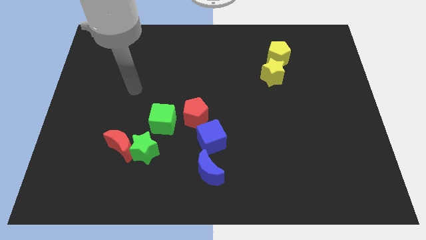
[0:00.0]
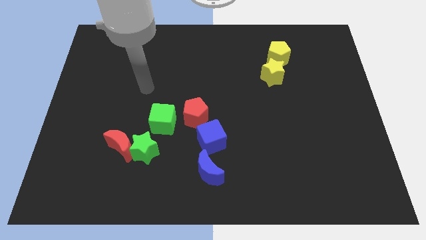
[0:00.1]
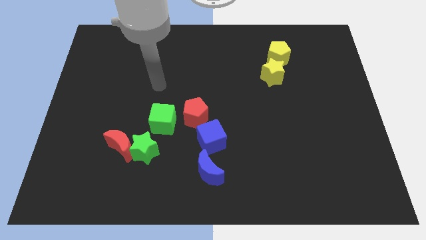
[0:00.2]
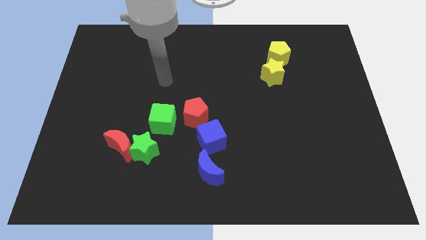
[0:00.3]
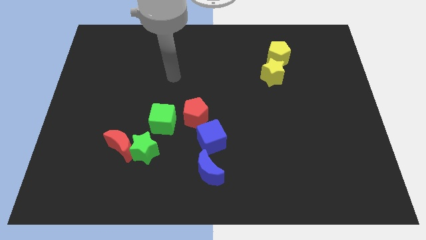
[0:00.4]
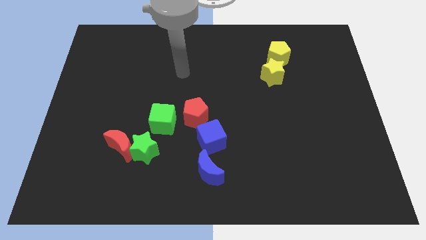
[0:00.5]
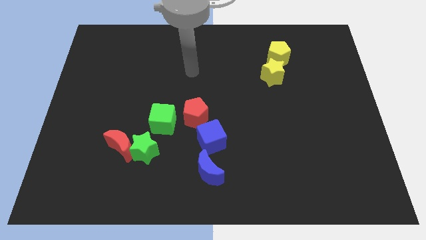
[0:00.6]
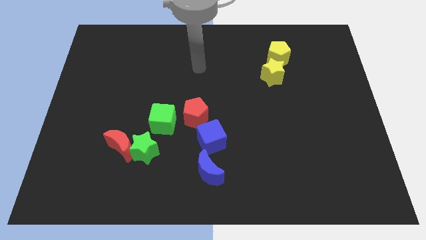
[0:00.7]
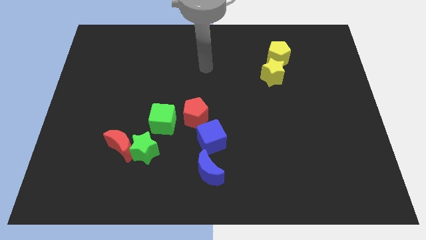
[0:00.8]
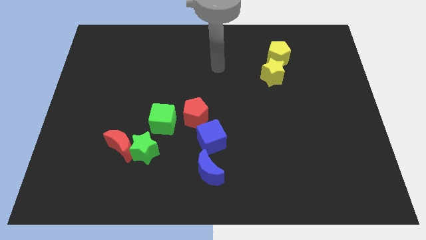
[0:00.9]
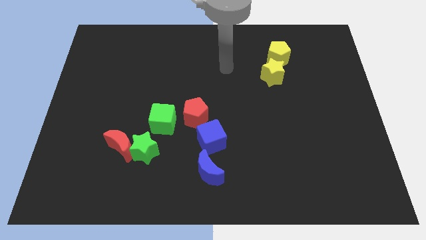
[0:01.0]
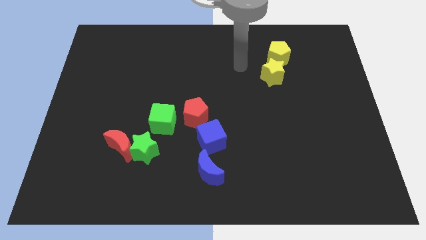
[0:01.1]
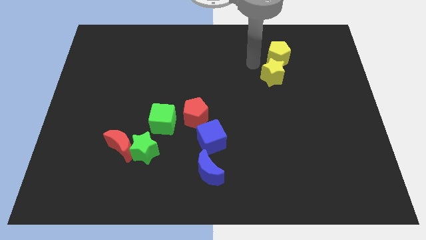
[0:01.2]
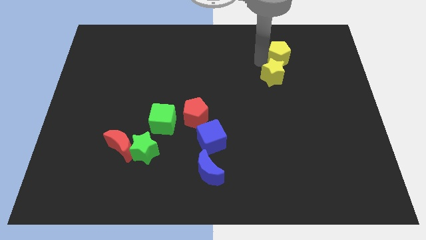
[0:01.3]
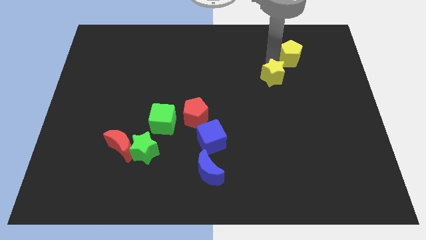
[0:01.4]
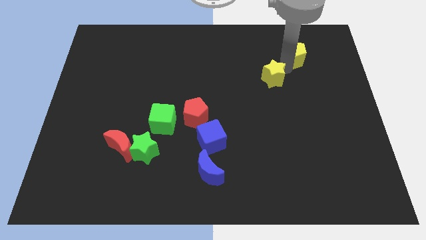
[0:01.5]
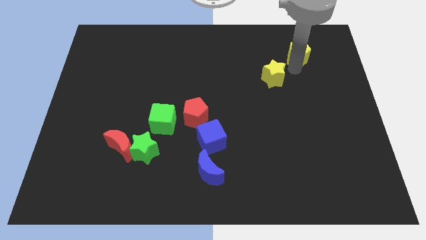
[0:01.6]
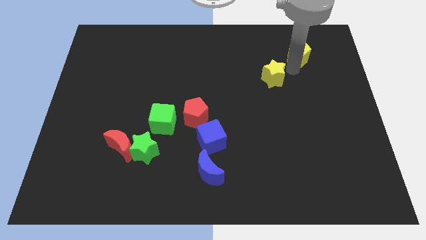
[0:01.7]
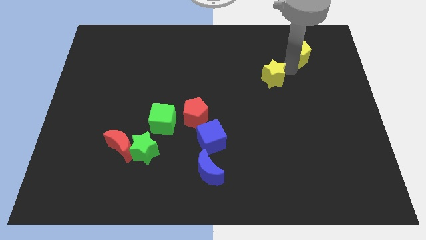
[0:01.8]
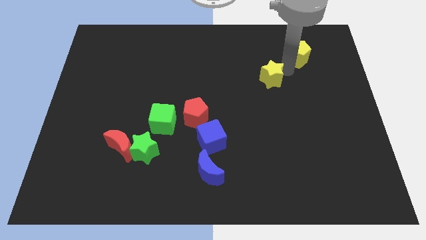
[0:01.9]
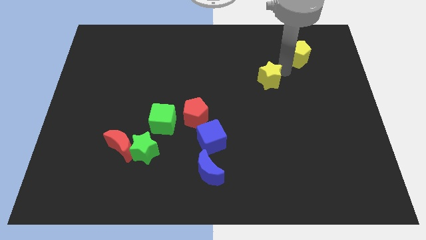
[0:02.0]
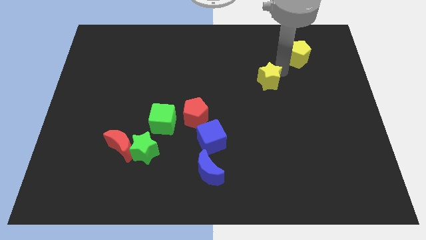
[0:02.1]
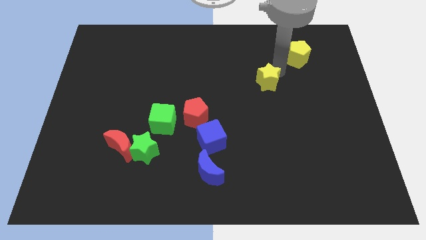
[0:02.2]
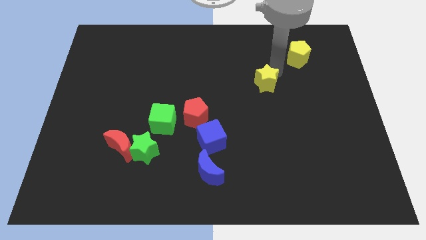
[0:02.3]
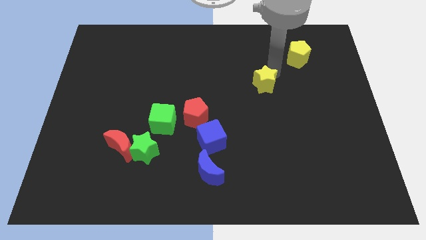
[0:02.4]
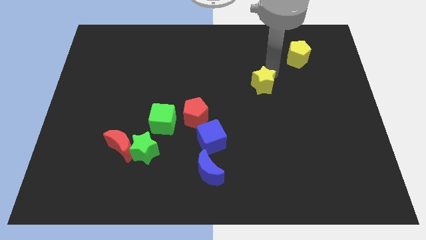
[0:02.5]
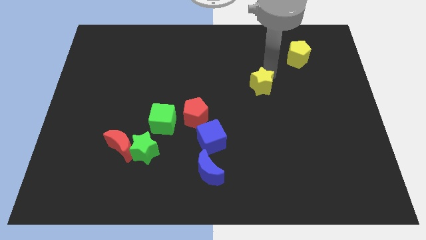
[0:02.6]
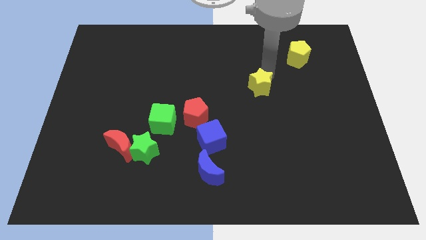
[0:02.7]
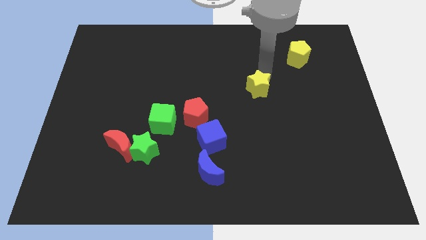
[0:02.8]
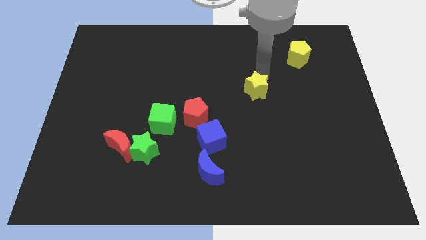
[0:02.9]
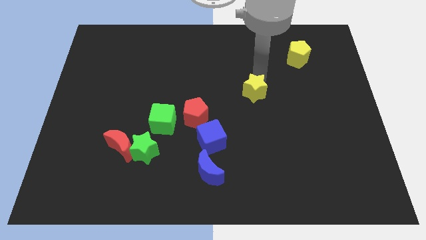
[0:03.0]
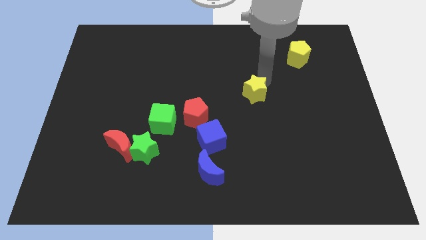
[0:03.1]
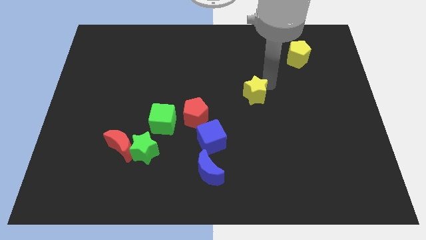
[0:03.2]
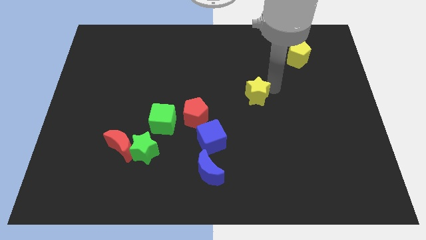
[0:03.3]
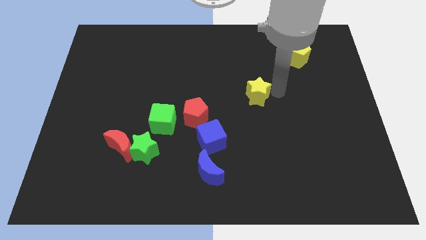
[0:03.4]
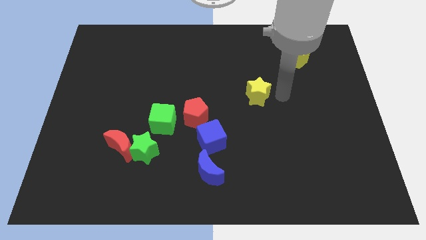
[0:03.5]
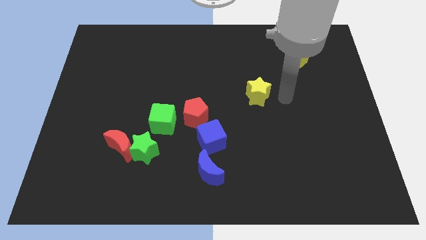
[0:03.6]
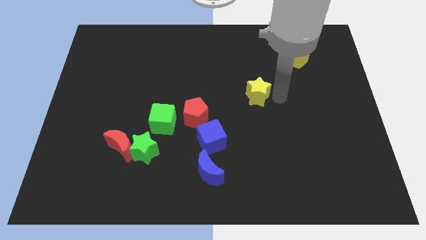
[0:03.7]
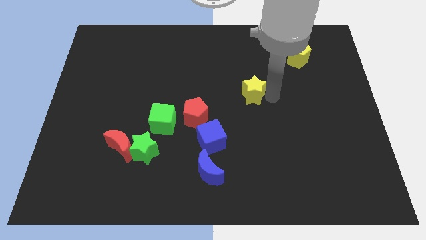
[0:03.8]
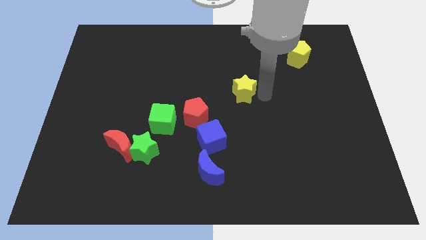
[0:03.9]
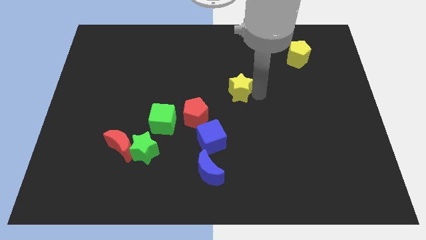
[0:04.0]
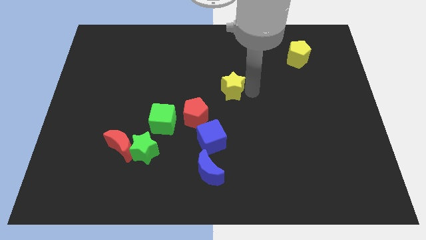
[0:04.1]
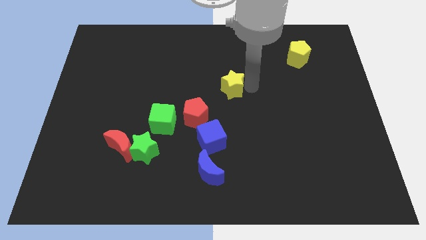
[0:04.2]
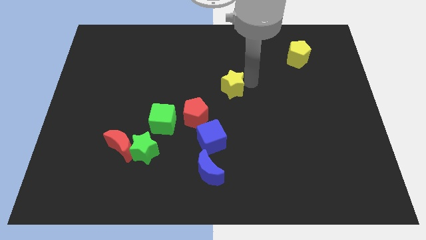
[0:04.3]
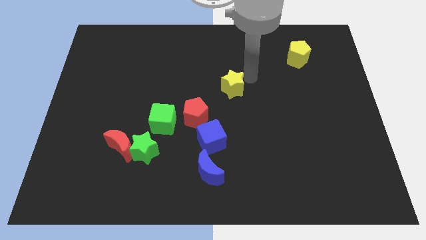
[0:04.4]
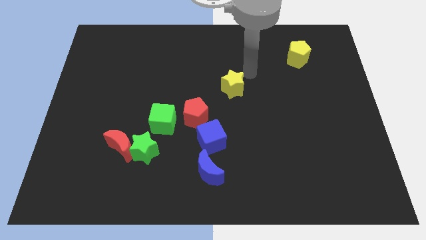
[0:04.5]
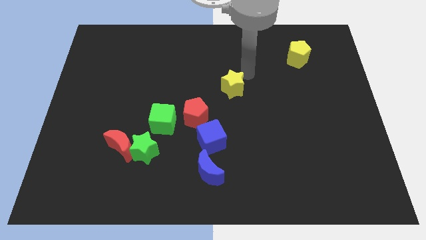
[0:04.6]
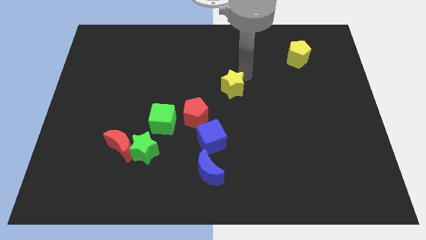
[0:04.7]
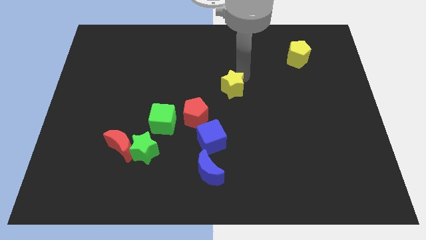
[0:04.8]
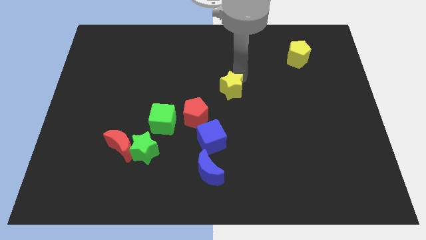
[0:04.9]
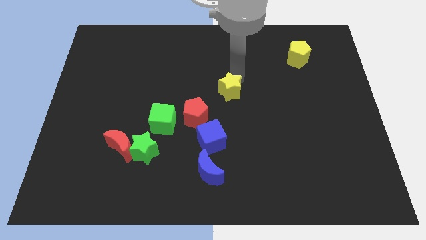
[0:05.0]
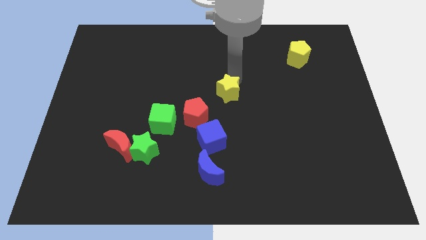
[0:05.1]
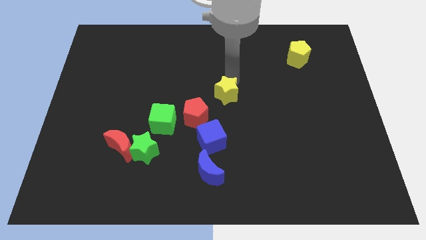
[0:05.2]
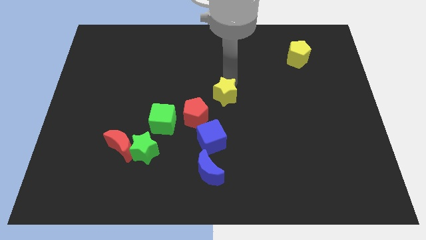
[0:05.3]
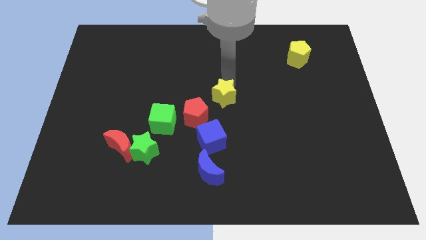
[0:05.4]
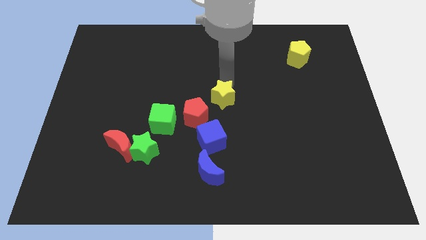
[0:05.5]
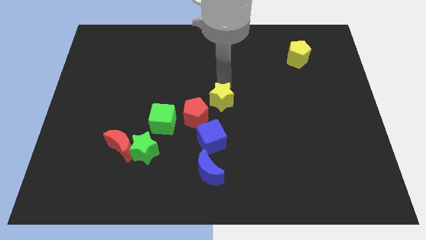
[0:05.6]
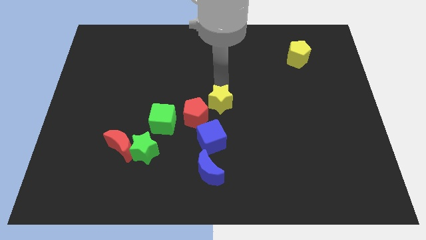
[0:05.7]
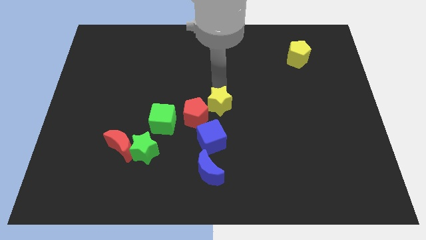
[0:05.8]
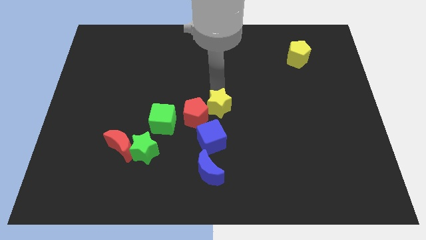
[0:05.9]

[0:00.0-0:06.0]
push the yellow star towards the red pentagon

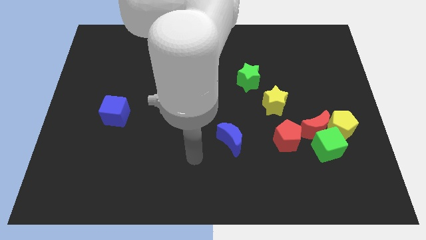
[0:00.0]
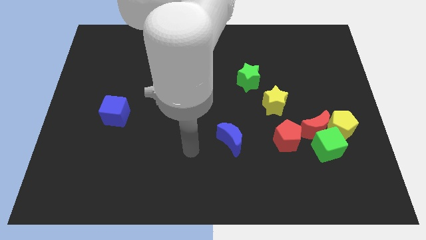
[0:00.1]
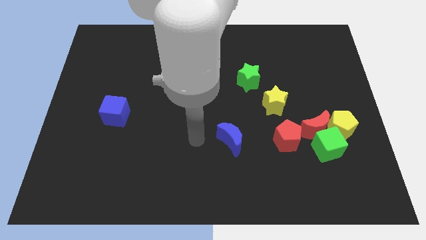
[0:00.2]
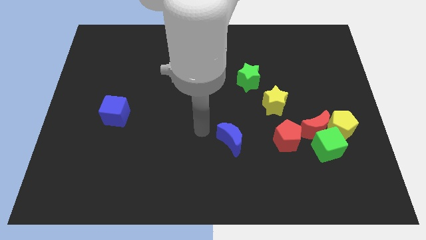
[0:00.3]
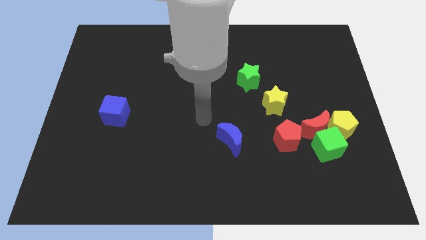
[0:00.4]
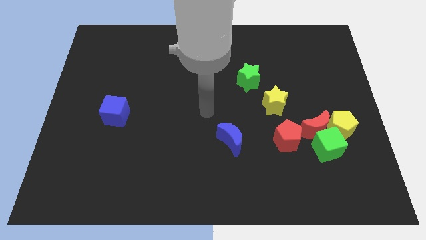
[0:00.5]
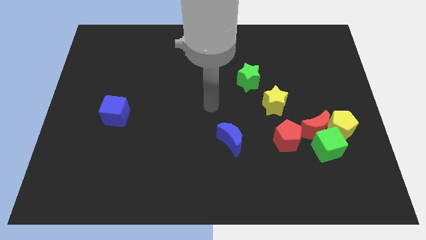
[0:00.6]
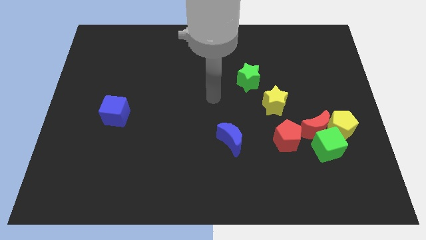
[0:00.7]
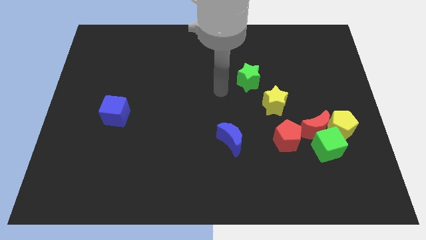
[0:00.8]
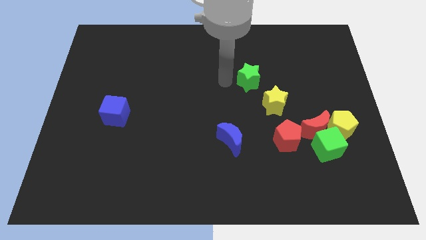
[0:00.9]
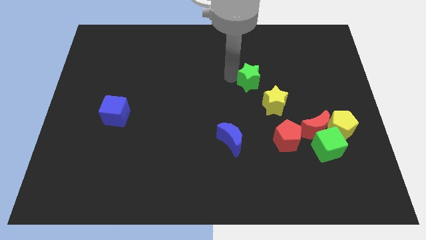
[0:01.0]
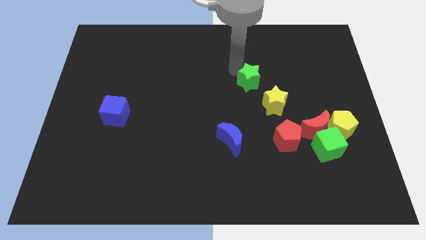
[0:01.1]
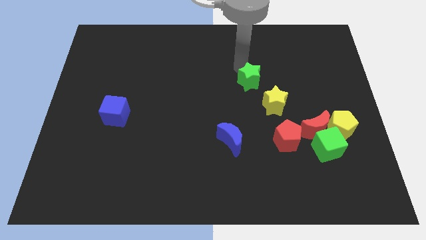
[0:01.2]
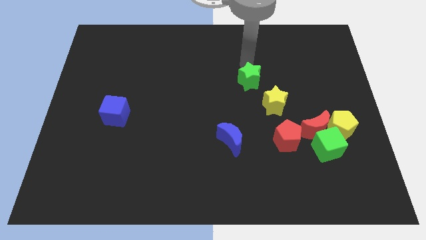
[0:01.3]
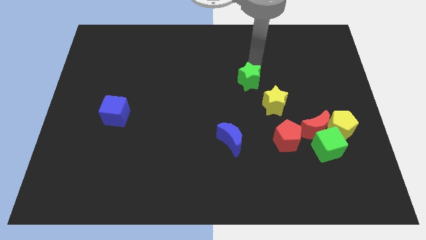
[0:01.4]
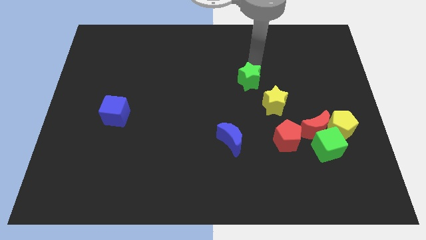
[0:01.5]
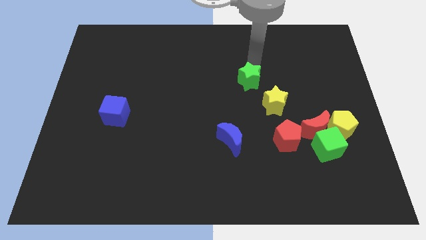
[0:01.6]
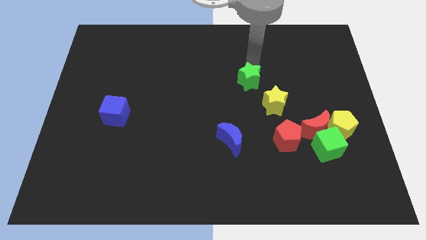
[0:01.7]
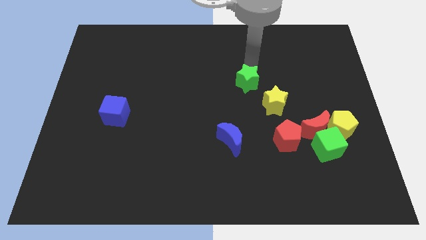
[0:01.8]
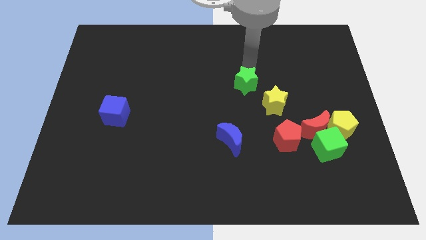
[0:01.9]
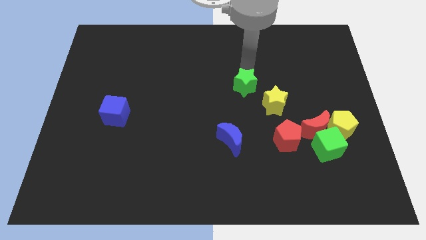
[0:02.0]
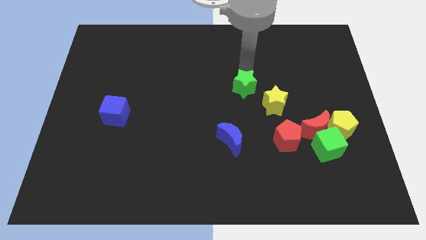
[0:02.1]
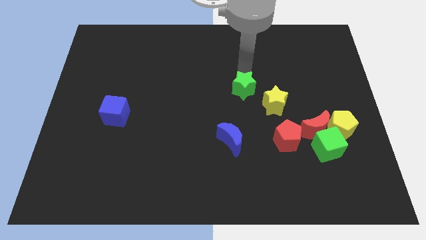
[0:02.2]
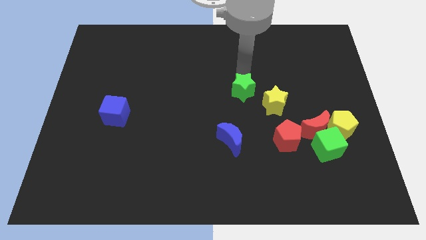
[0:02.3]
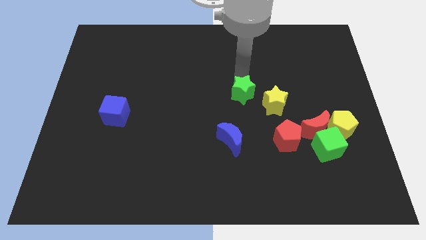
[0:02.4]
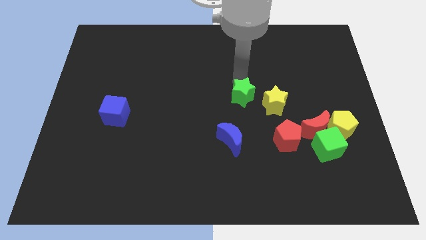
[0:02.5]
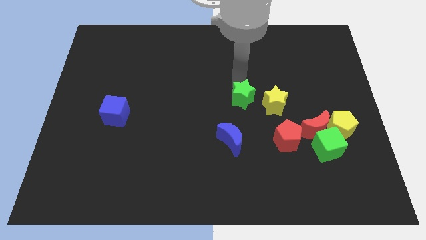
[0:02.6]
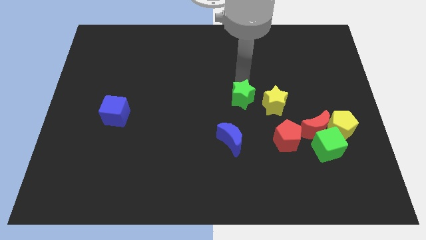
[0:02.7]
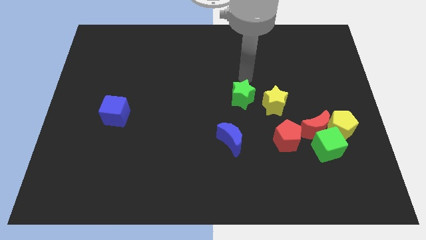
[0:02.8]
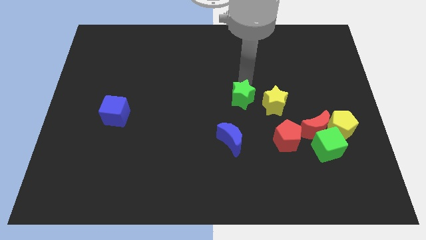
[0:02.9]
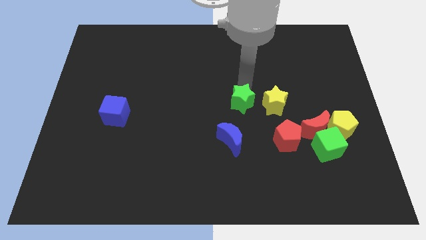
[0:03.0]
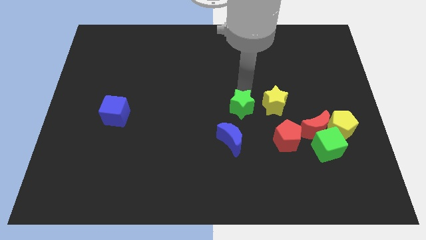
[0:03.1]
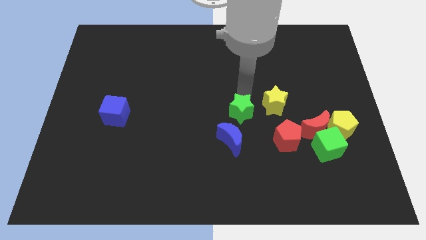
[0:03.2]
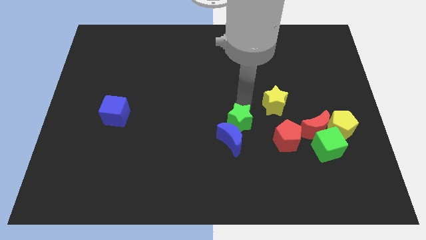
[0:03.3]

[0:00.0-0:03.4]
move the green star towards the blue moon
